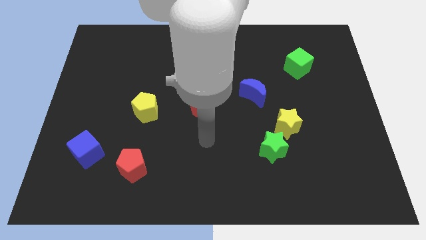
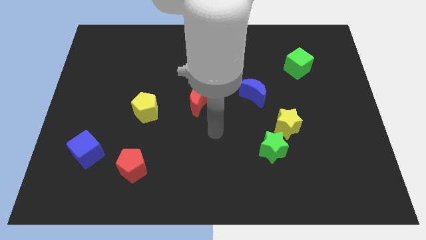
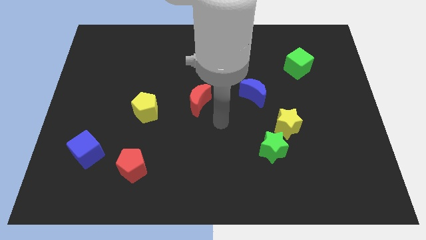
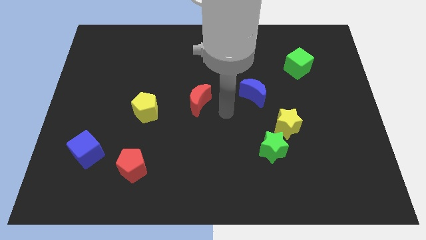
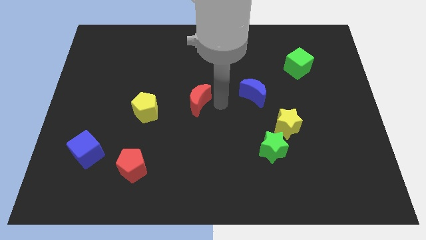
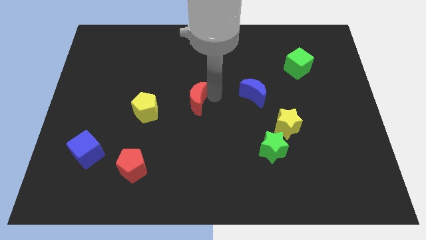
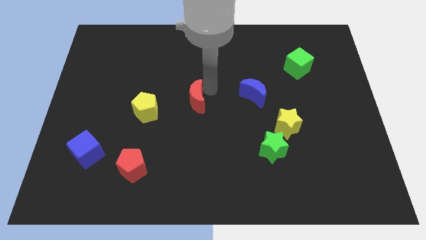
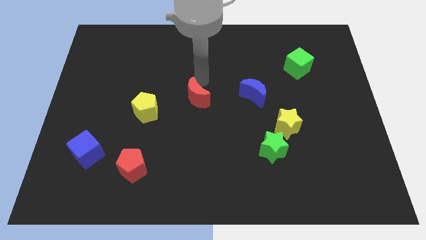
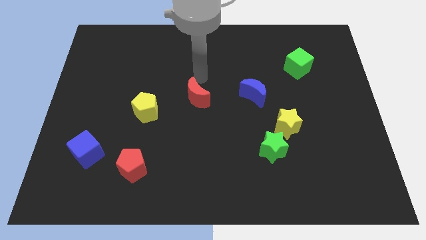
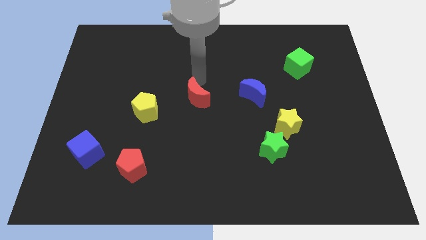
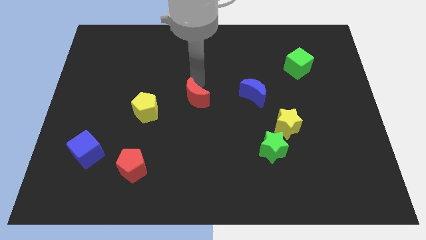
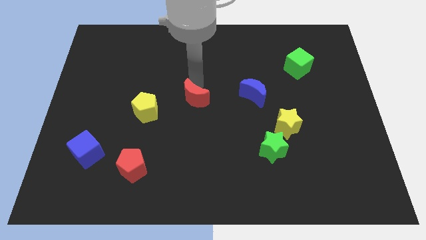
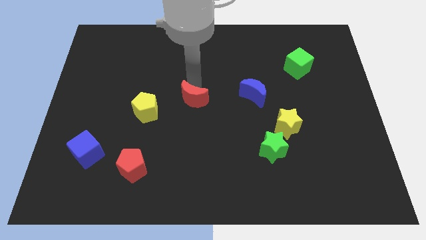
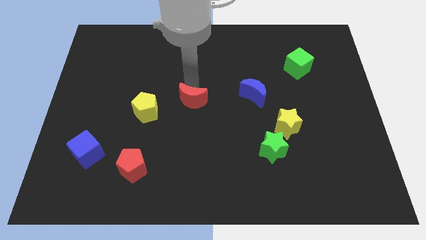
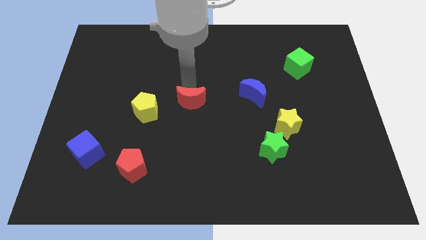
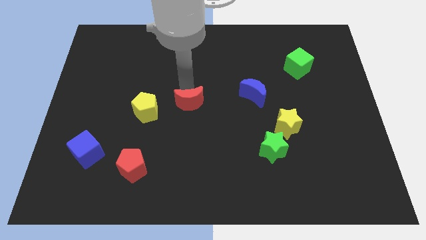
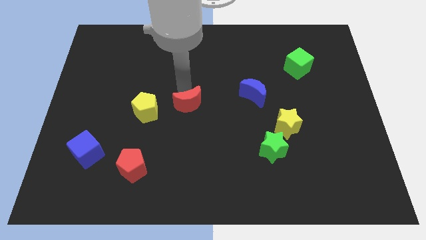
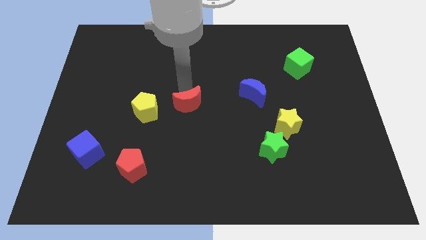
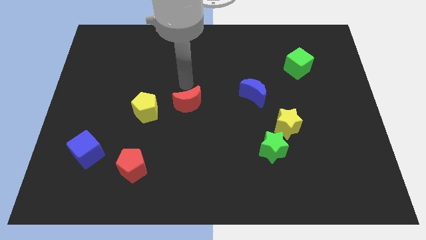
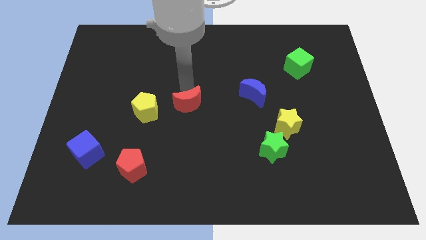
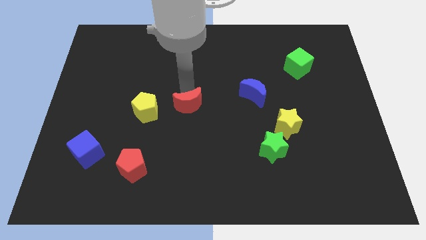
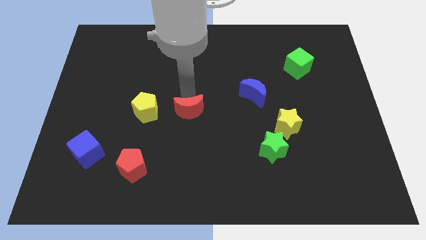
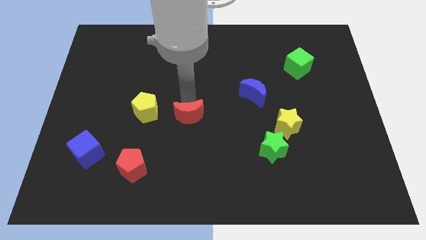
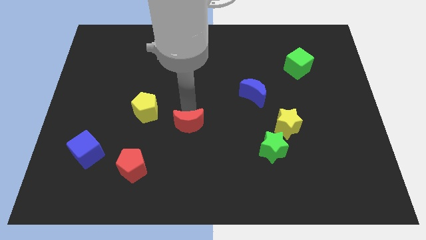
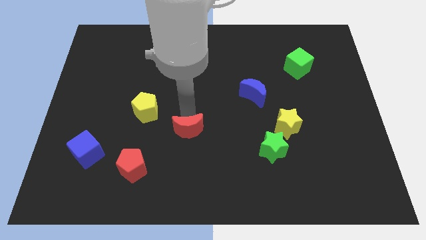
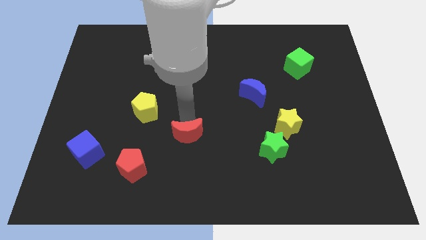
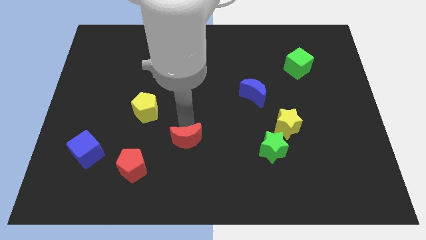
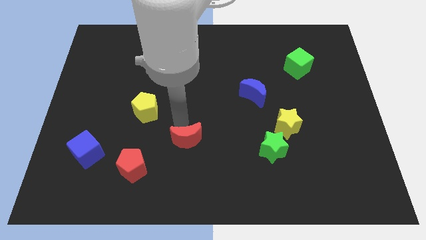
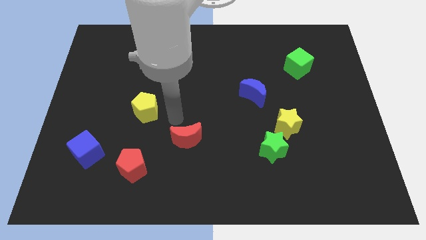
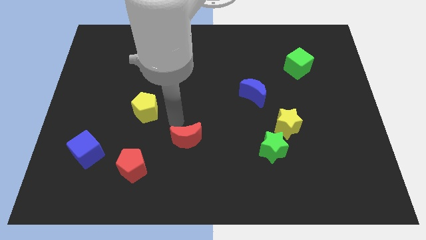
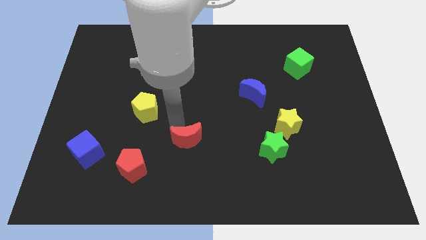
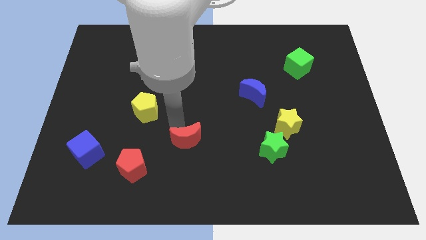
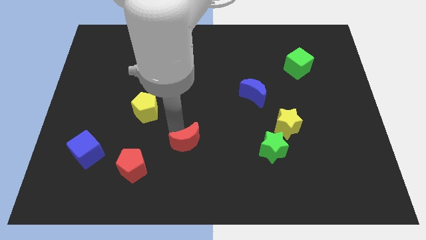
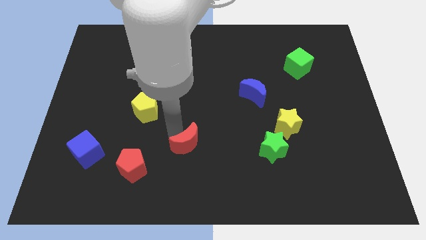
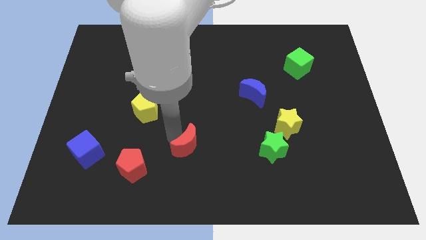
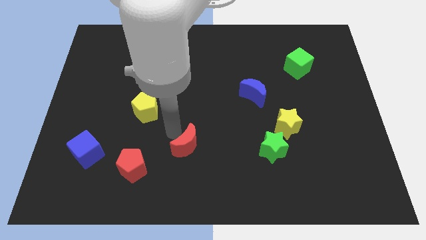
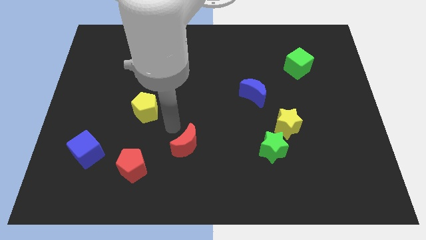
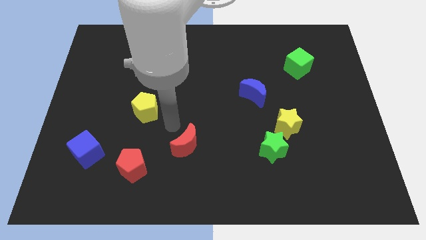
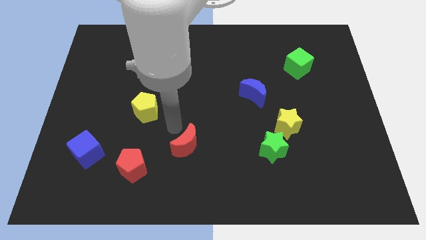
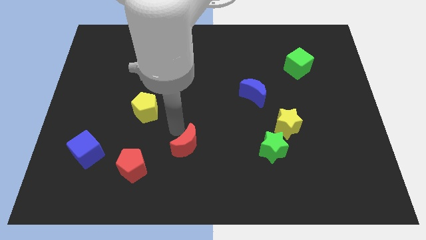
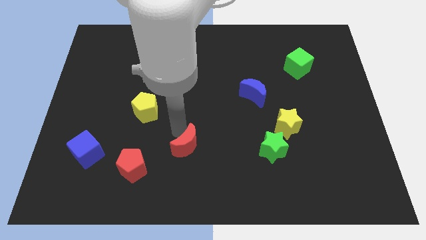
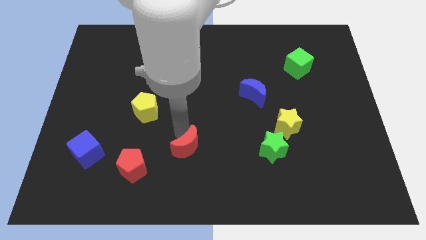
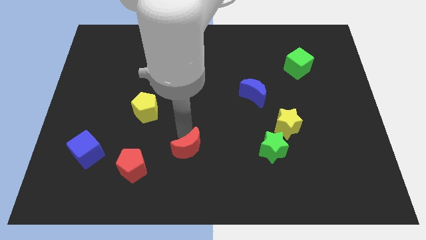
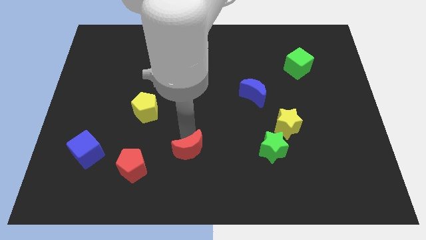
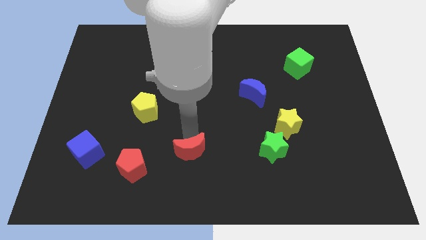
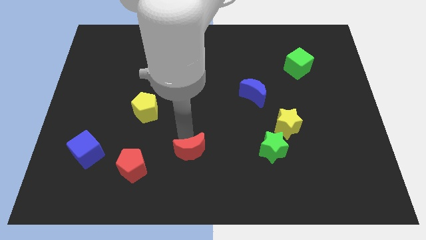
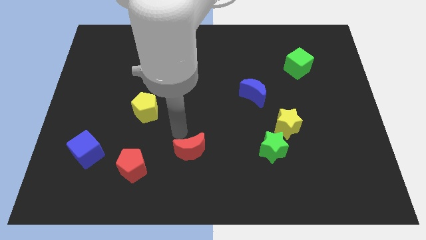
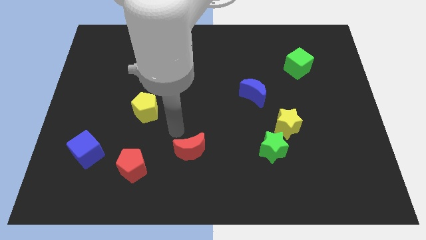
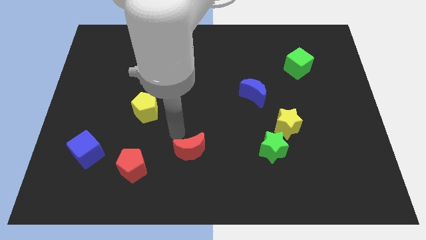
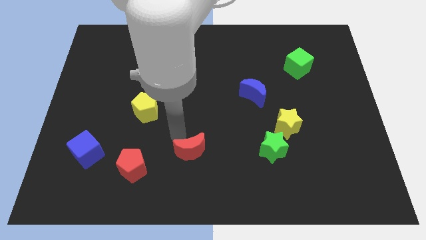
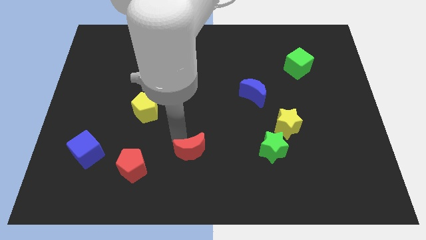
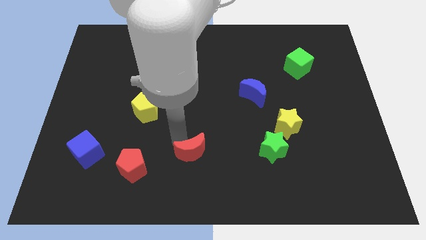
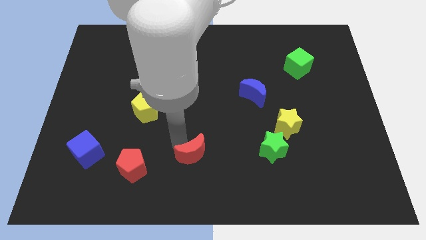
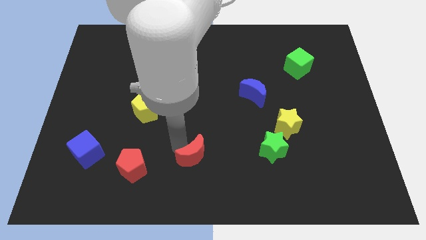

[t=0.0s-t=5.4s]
move the red moon to the bottom

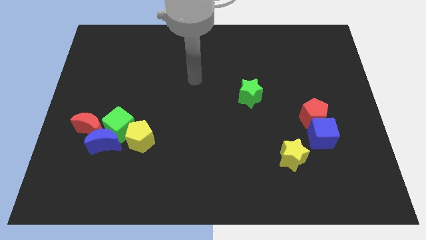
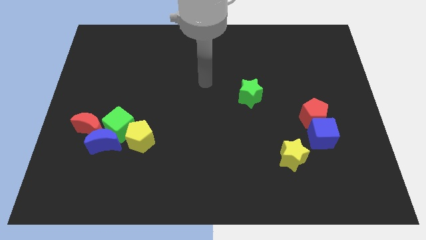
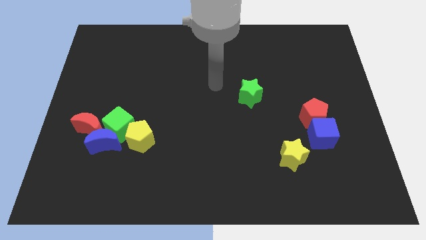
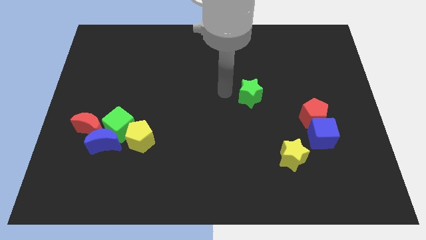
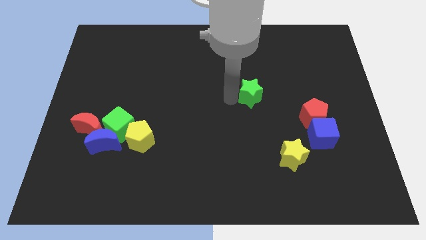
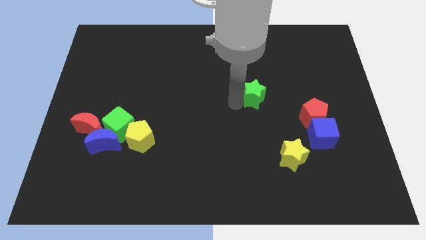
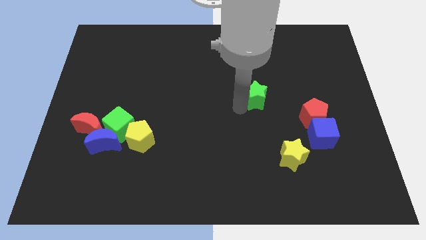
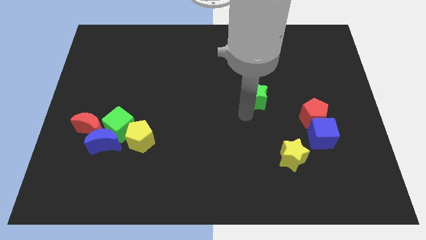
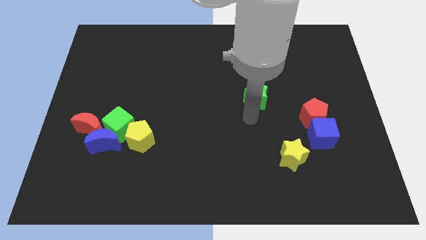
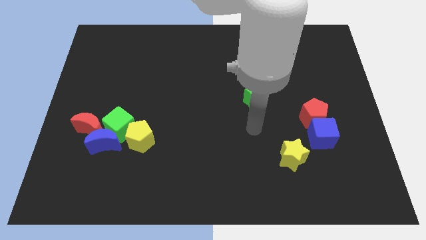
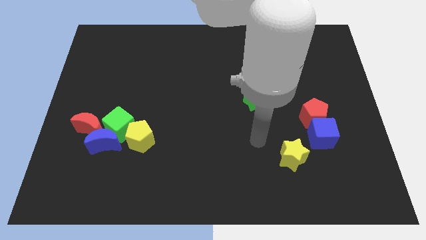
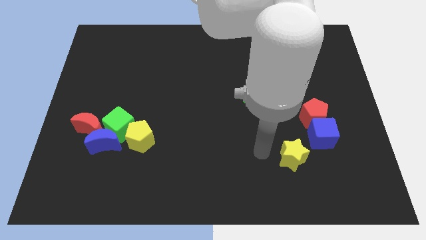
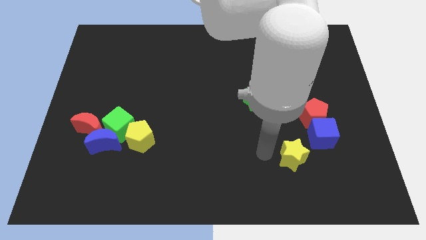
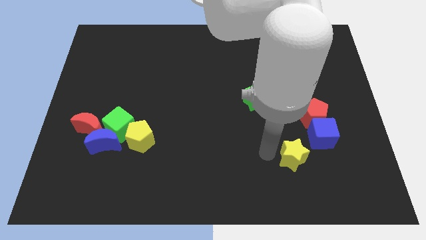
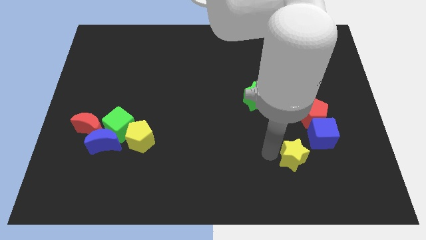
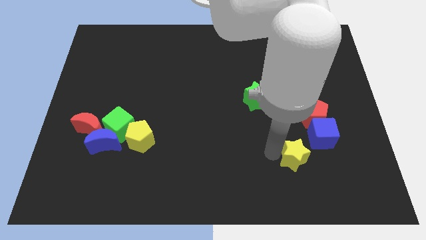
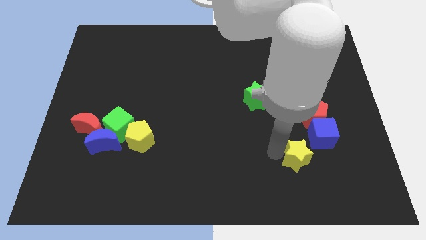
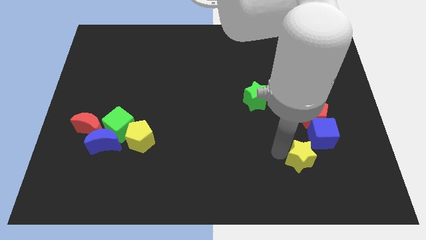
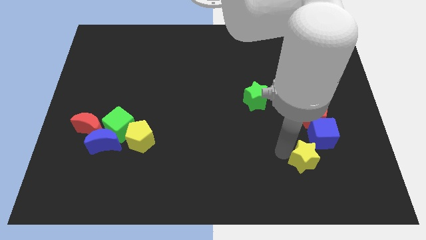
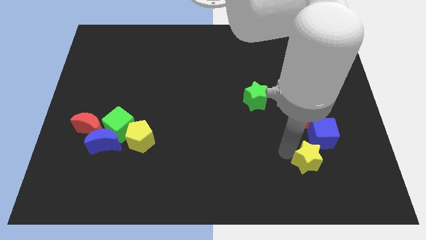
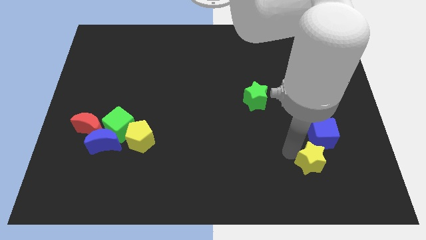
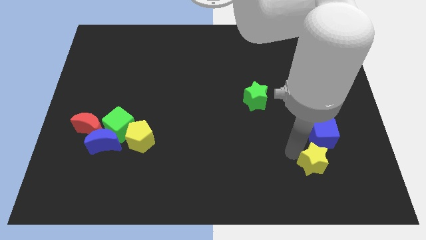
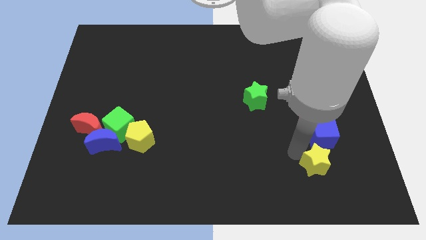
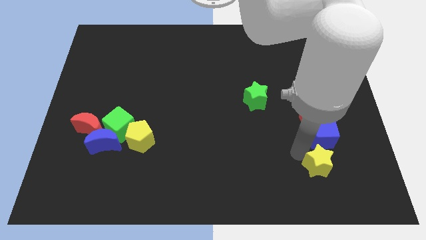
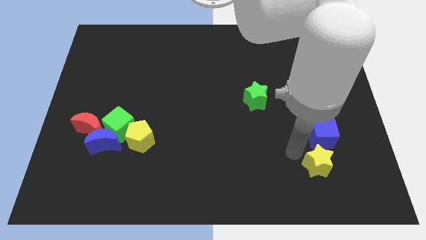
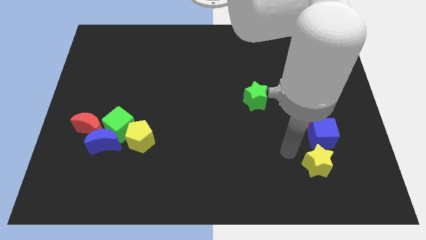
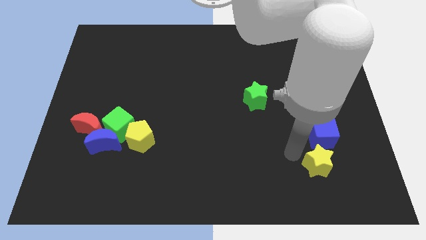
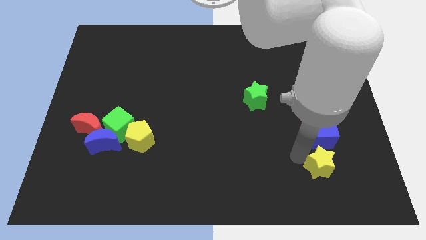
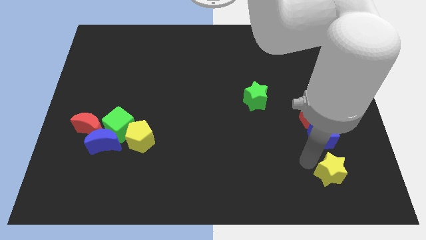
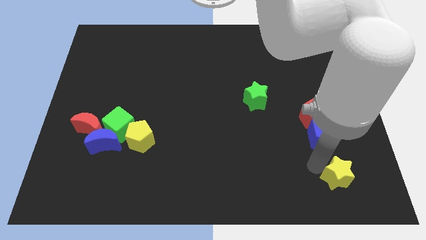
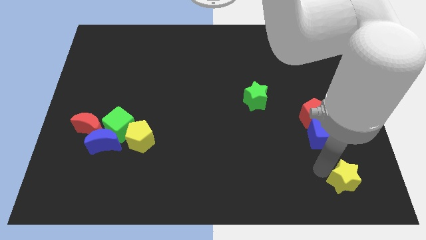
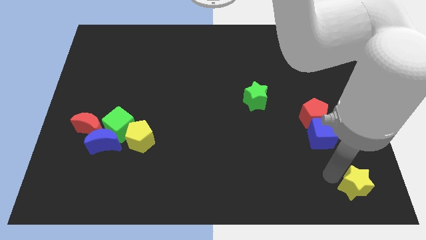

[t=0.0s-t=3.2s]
push the yellow star to the lower right corner
